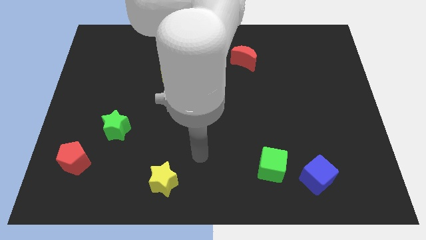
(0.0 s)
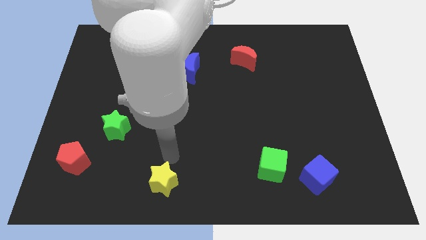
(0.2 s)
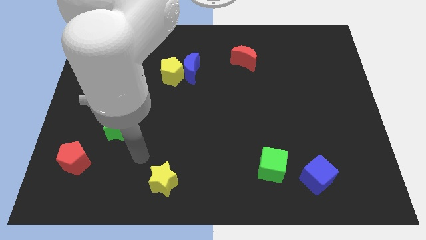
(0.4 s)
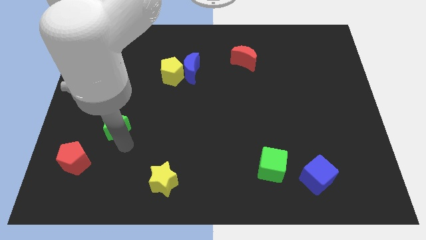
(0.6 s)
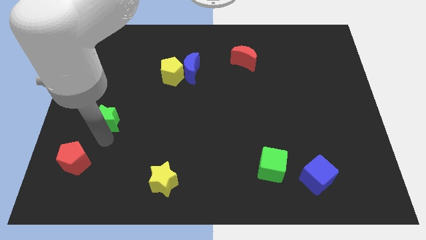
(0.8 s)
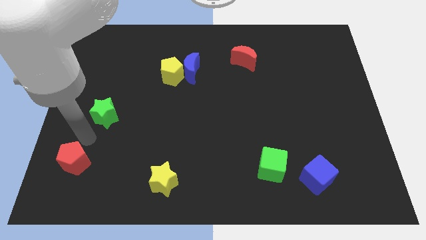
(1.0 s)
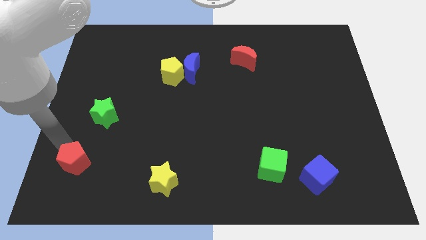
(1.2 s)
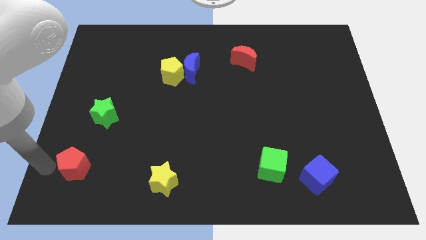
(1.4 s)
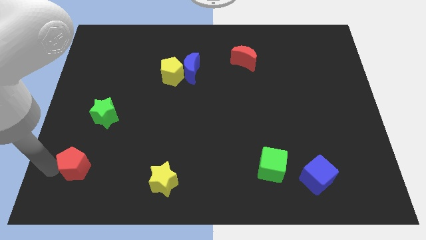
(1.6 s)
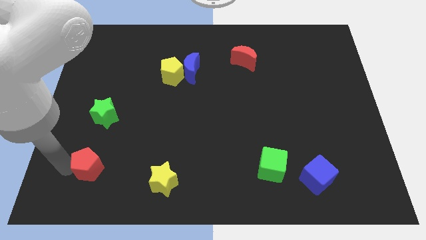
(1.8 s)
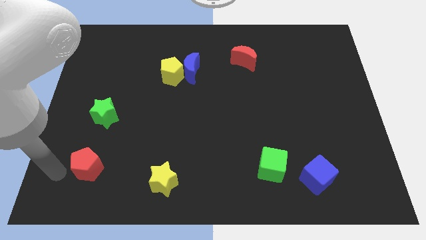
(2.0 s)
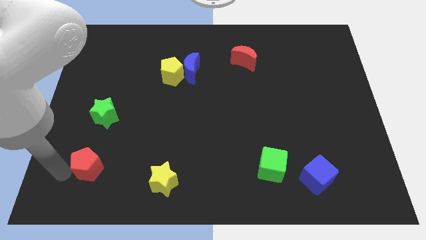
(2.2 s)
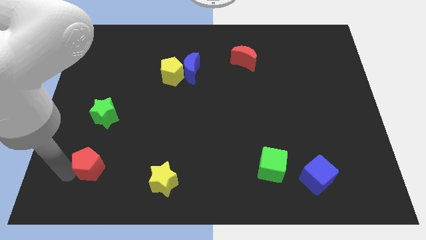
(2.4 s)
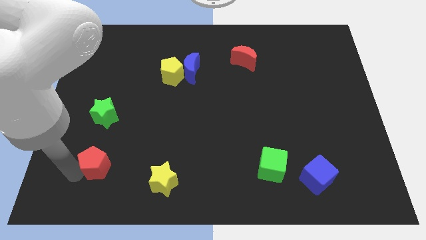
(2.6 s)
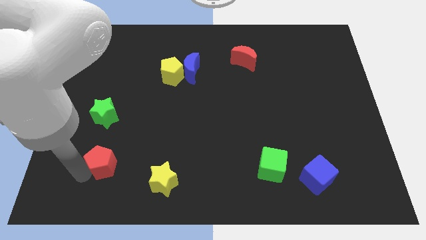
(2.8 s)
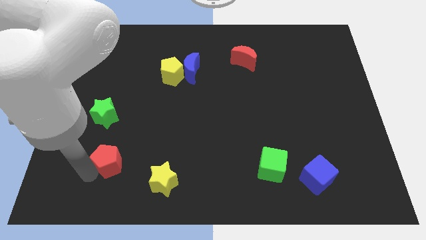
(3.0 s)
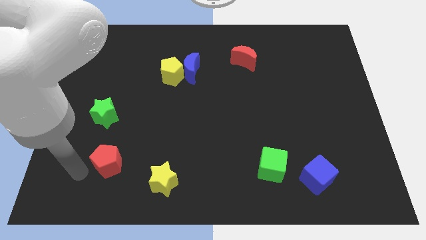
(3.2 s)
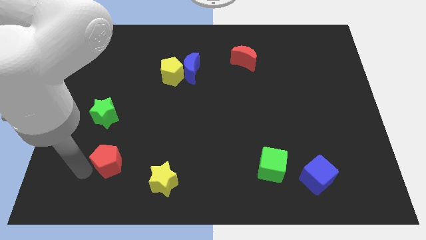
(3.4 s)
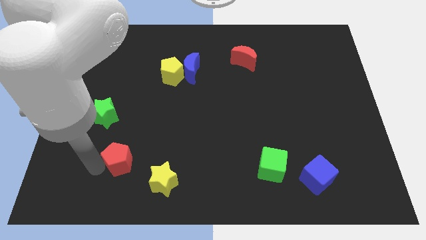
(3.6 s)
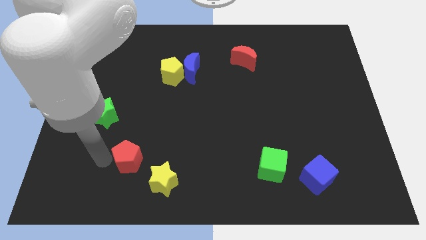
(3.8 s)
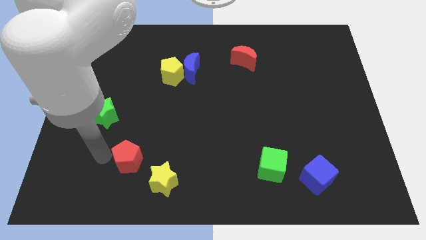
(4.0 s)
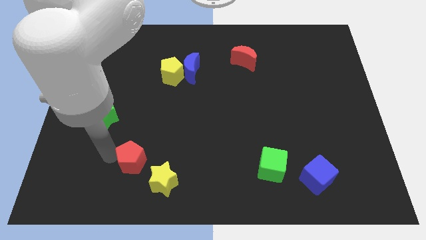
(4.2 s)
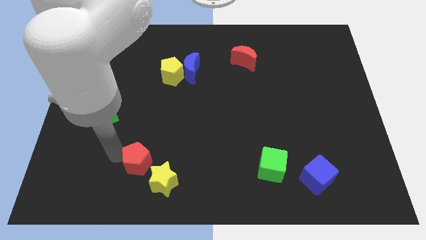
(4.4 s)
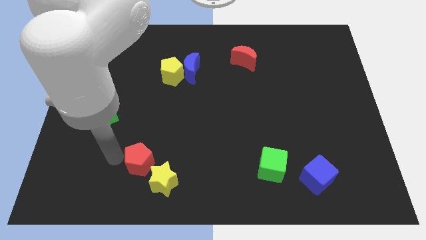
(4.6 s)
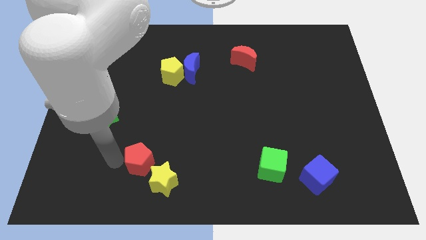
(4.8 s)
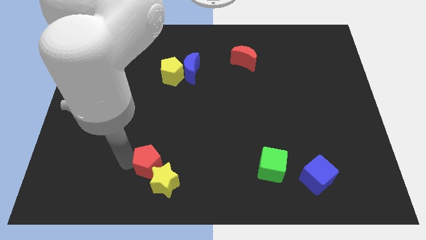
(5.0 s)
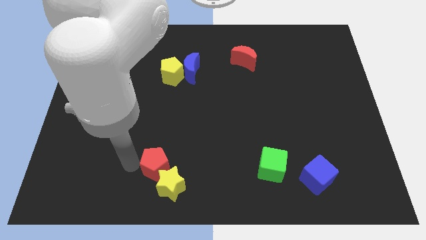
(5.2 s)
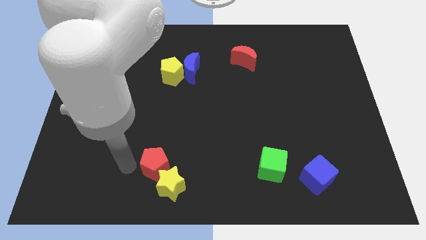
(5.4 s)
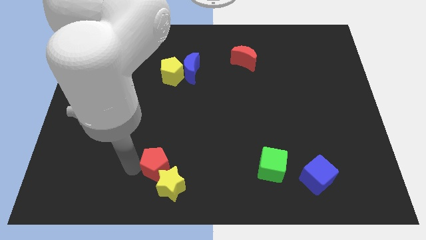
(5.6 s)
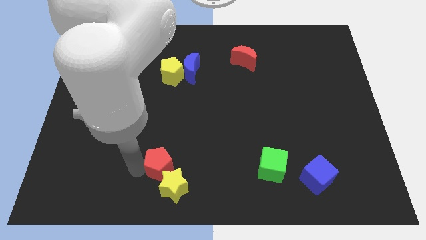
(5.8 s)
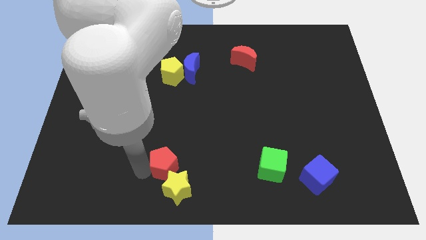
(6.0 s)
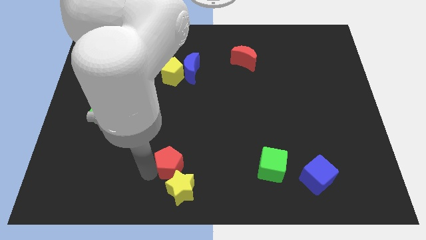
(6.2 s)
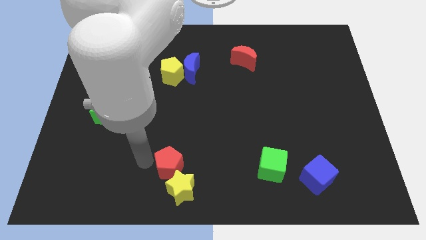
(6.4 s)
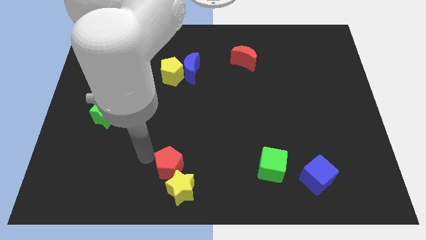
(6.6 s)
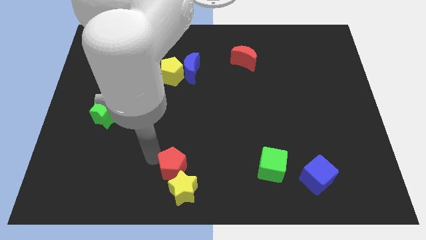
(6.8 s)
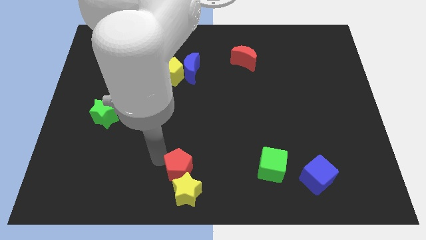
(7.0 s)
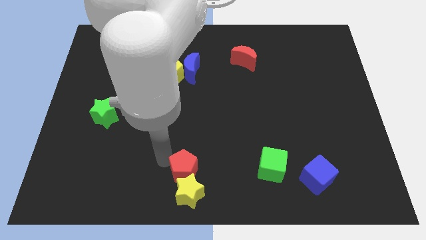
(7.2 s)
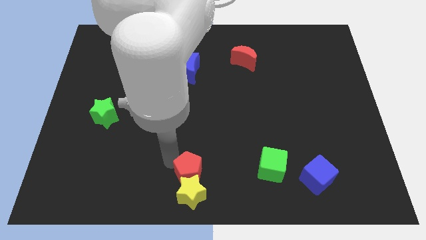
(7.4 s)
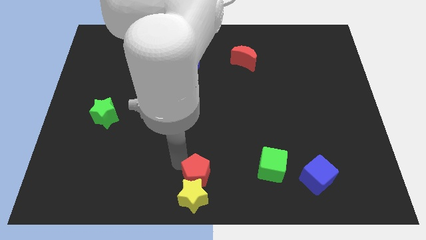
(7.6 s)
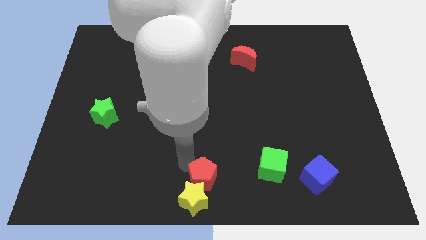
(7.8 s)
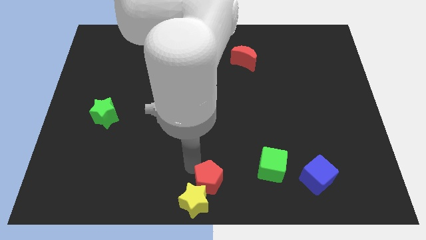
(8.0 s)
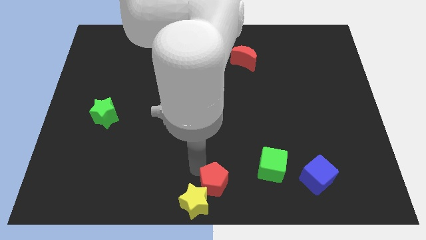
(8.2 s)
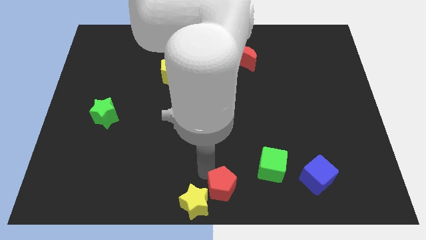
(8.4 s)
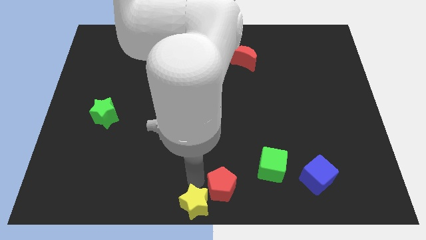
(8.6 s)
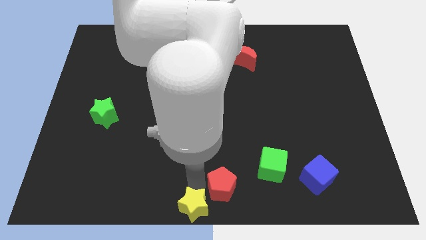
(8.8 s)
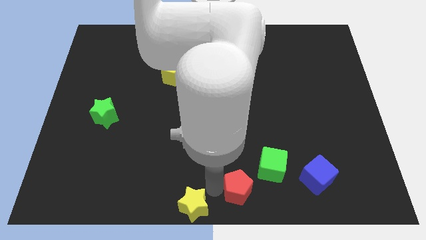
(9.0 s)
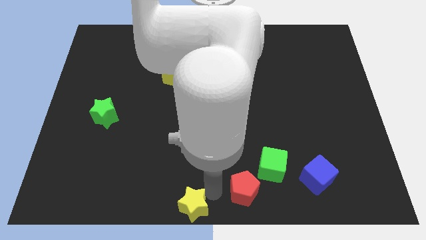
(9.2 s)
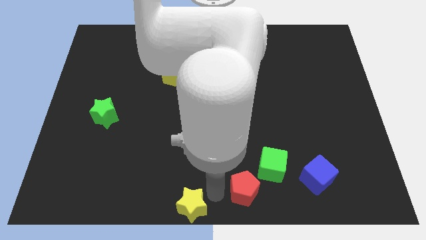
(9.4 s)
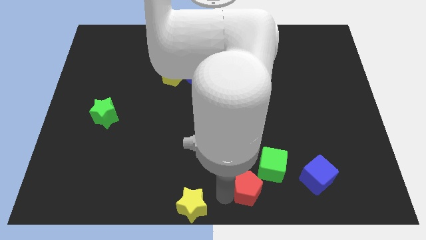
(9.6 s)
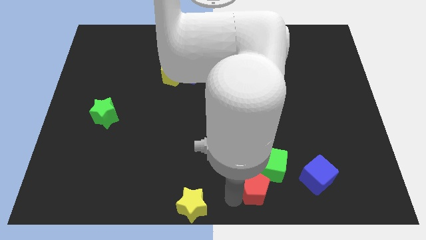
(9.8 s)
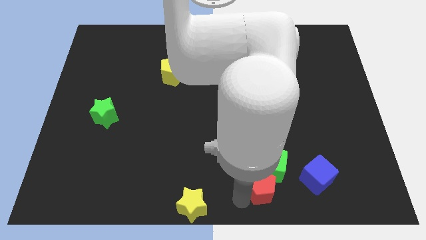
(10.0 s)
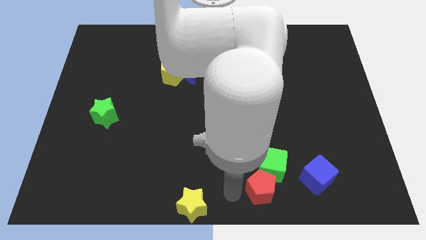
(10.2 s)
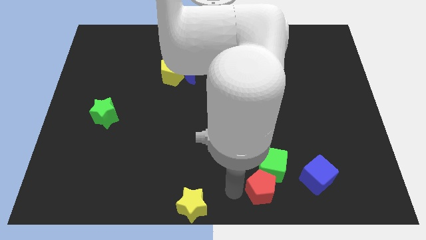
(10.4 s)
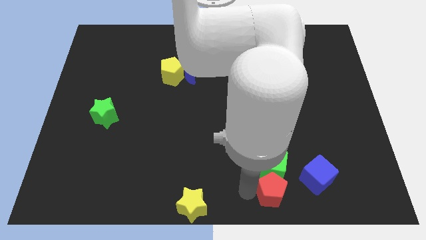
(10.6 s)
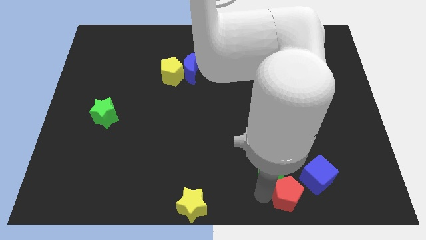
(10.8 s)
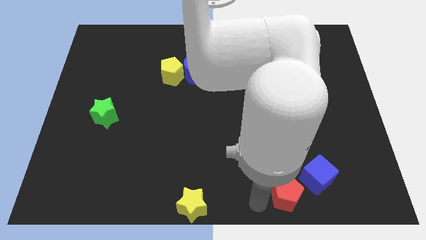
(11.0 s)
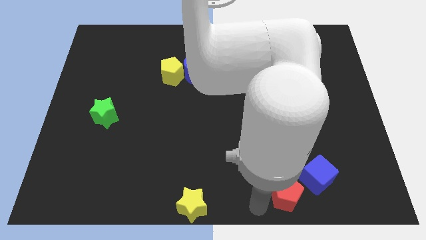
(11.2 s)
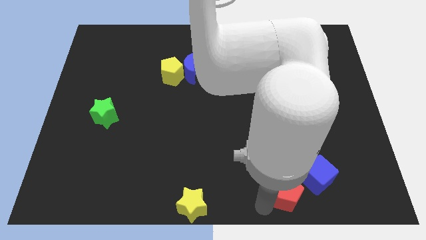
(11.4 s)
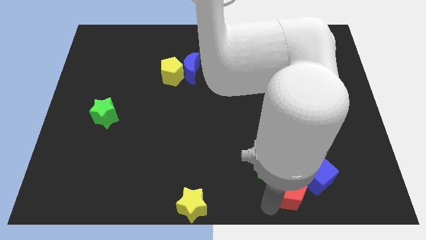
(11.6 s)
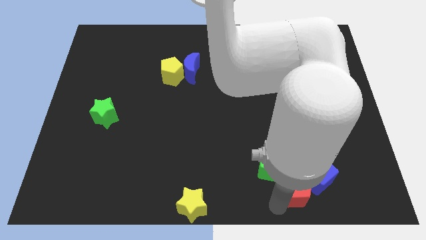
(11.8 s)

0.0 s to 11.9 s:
push the red pentagon next to the blue cube
